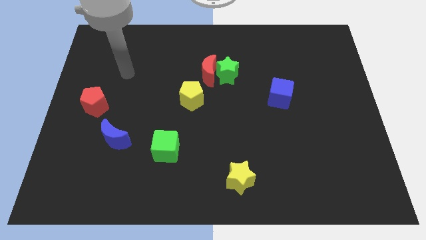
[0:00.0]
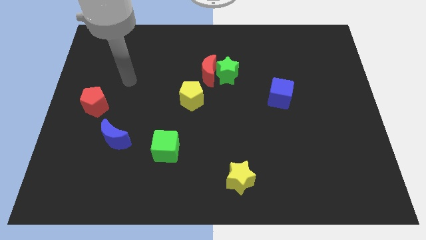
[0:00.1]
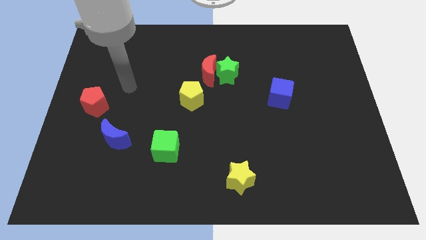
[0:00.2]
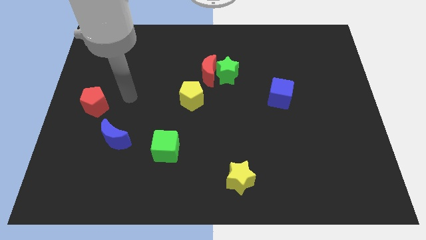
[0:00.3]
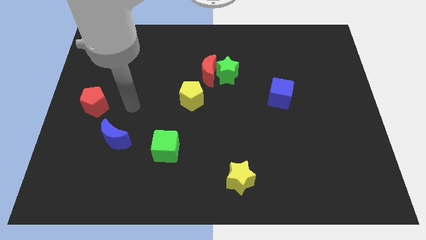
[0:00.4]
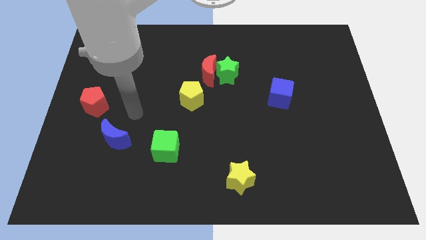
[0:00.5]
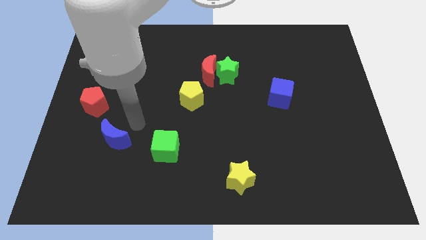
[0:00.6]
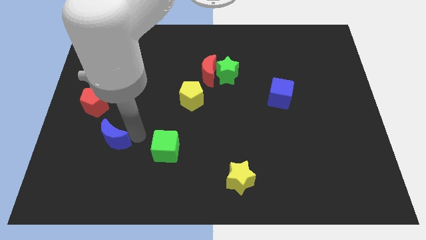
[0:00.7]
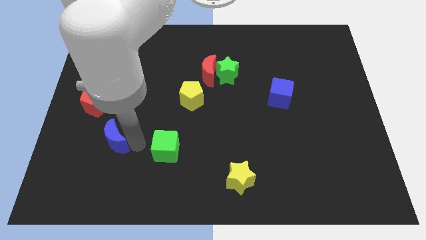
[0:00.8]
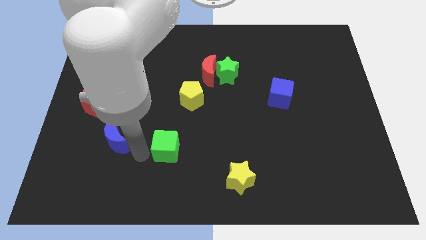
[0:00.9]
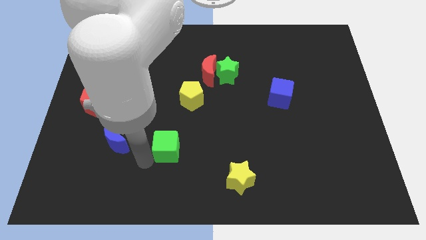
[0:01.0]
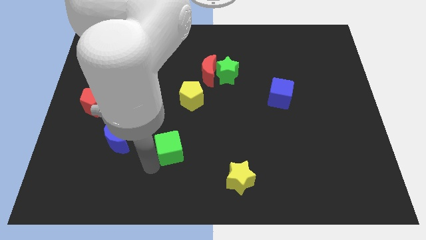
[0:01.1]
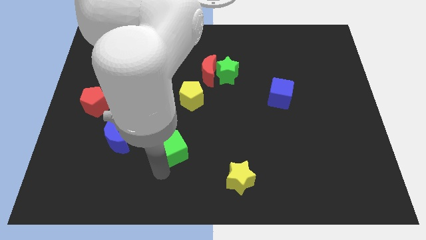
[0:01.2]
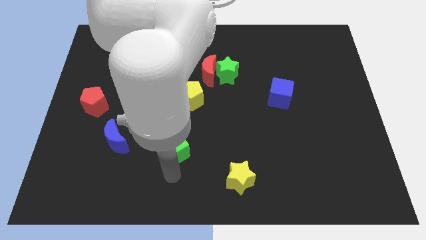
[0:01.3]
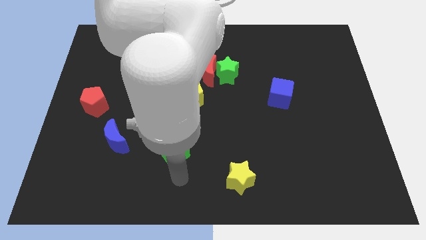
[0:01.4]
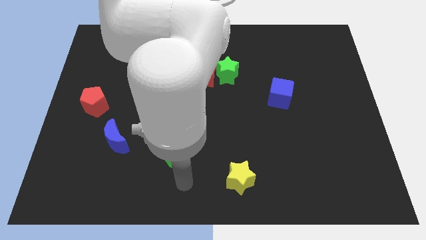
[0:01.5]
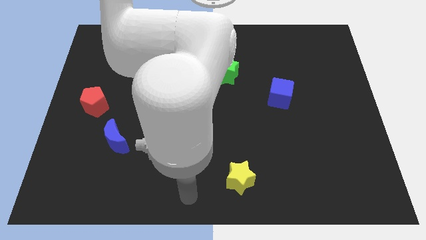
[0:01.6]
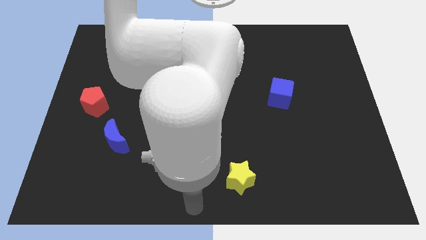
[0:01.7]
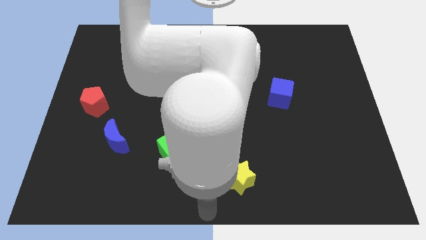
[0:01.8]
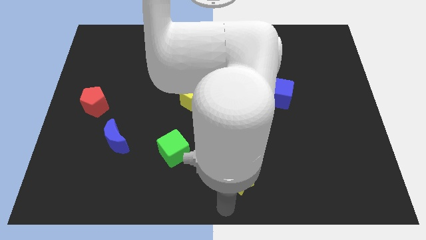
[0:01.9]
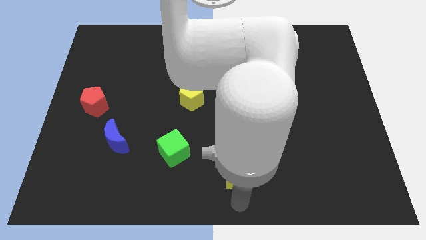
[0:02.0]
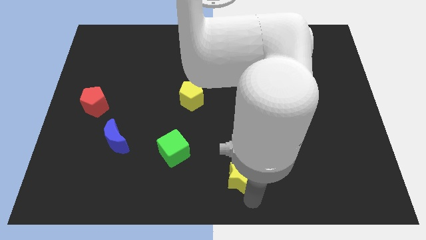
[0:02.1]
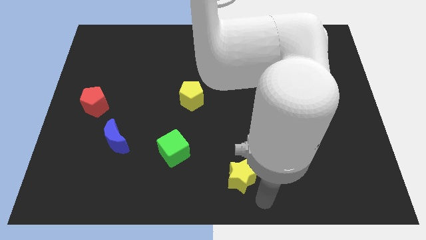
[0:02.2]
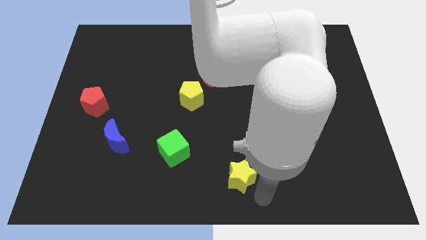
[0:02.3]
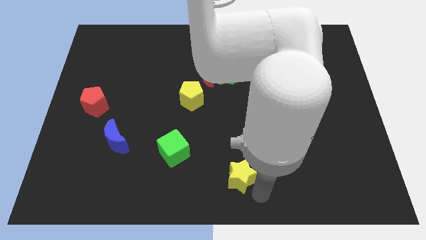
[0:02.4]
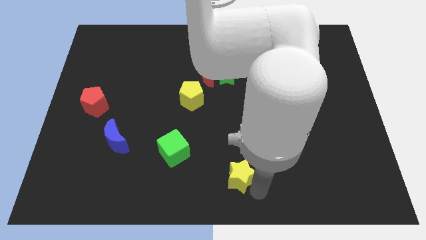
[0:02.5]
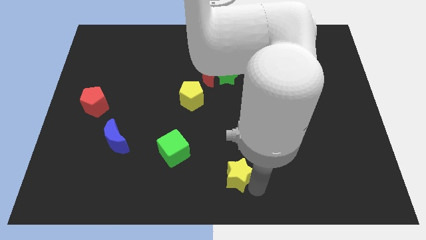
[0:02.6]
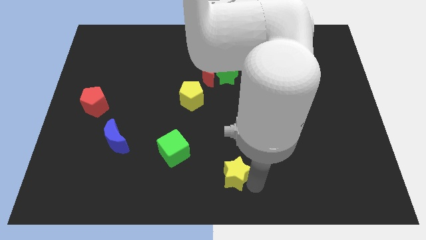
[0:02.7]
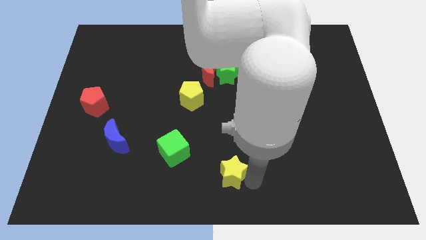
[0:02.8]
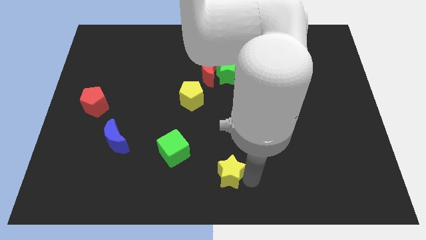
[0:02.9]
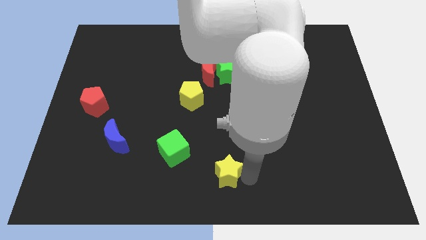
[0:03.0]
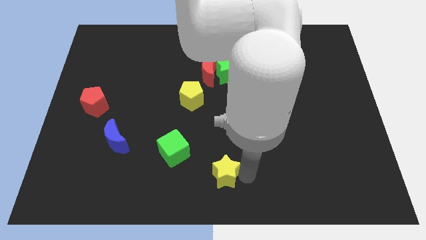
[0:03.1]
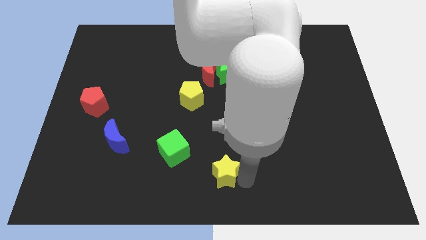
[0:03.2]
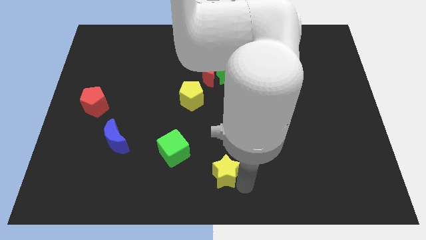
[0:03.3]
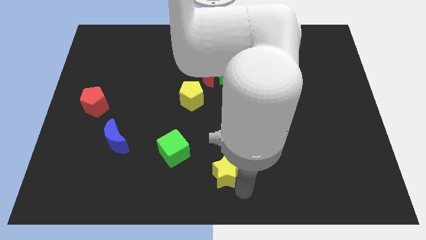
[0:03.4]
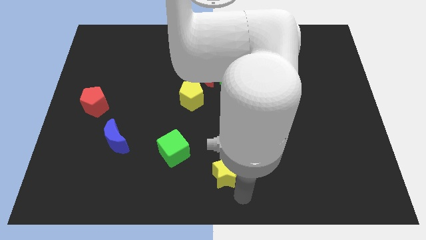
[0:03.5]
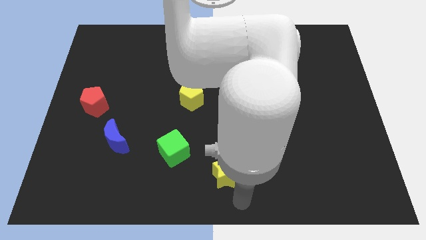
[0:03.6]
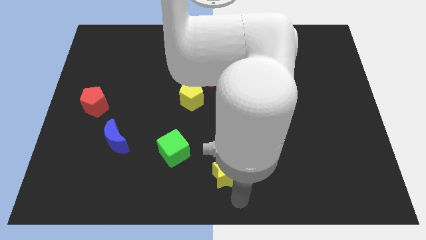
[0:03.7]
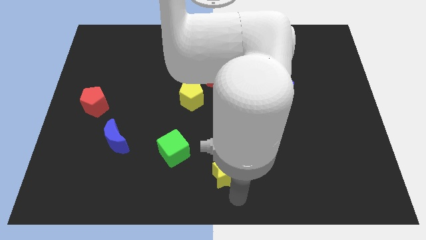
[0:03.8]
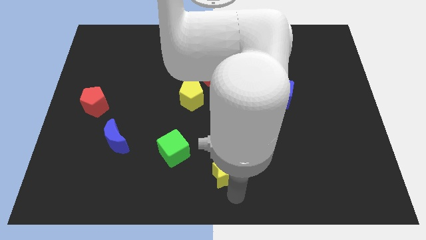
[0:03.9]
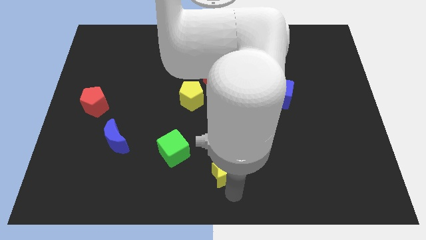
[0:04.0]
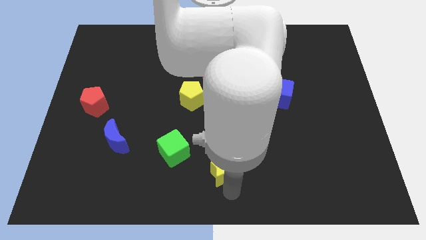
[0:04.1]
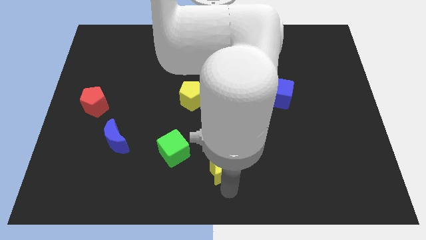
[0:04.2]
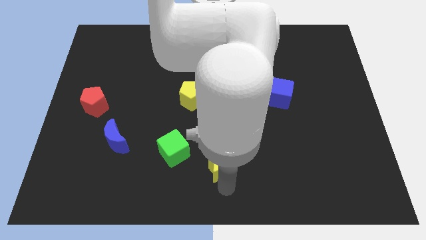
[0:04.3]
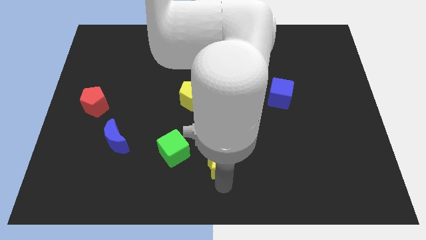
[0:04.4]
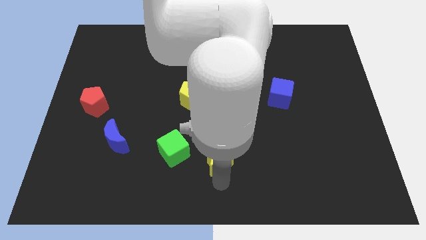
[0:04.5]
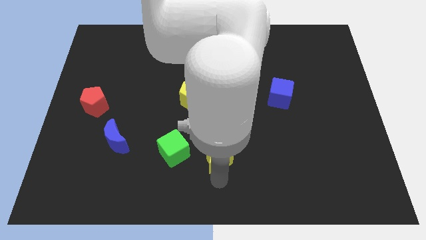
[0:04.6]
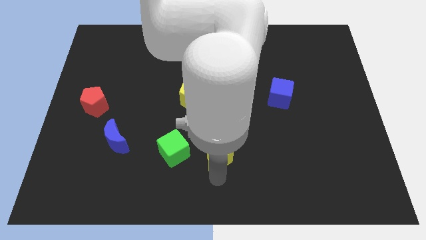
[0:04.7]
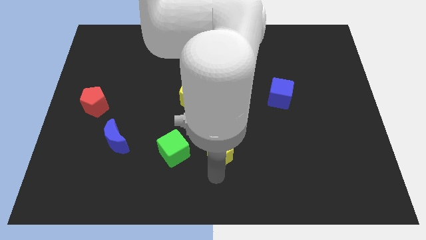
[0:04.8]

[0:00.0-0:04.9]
push the yellow star a little bit upwards and to the left

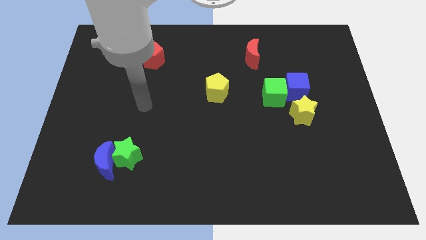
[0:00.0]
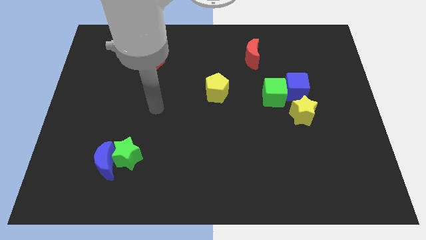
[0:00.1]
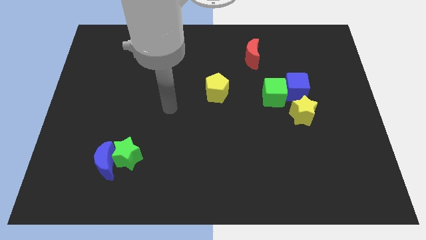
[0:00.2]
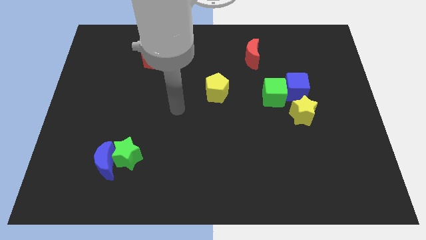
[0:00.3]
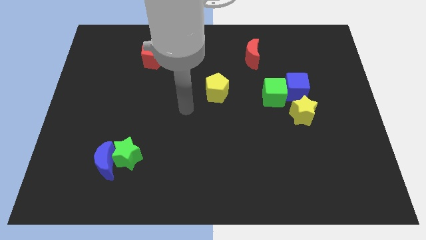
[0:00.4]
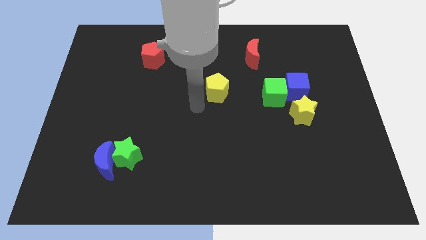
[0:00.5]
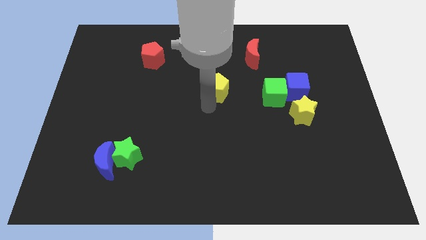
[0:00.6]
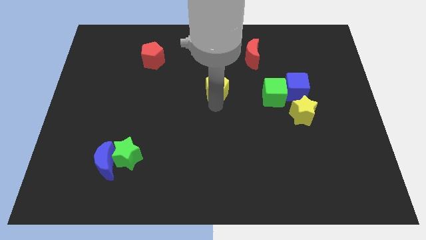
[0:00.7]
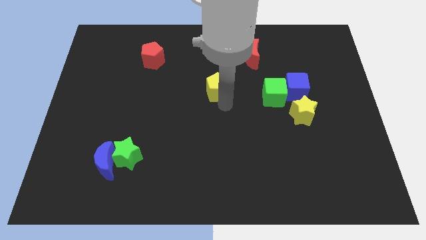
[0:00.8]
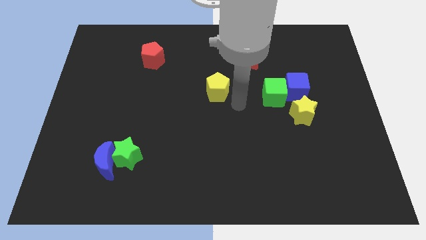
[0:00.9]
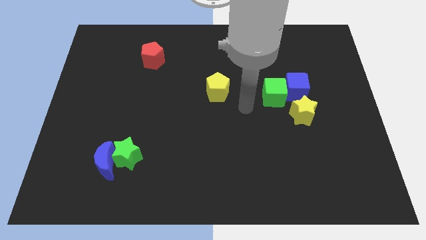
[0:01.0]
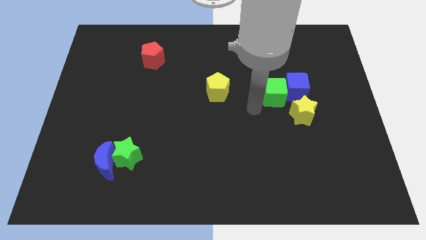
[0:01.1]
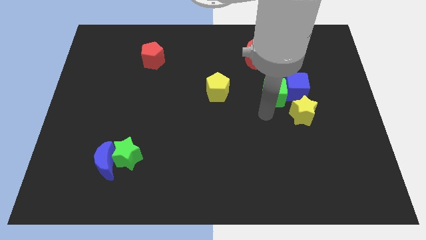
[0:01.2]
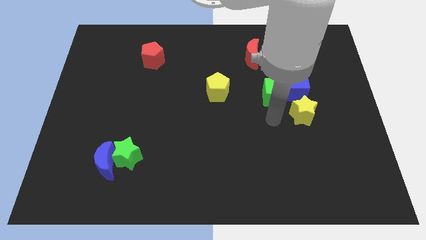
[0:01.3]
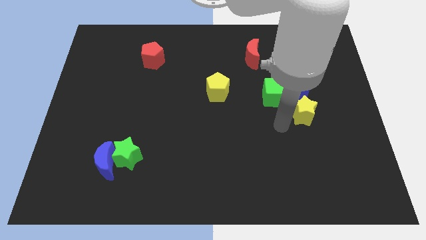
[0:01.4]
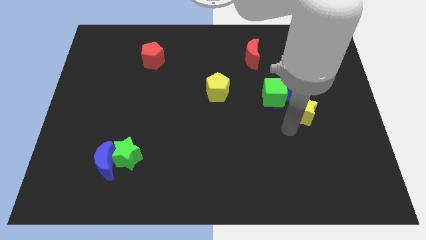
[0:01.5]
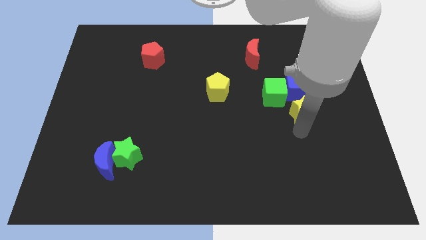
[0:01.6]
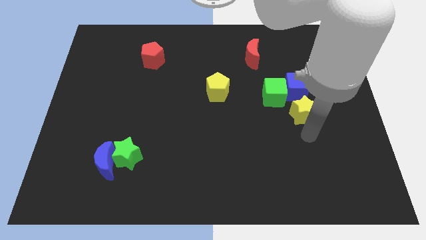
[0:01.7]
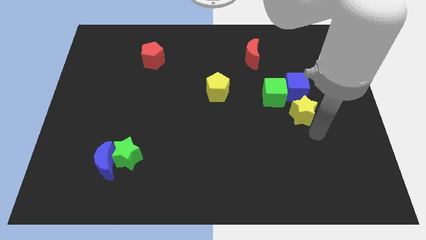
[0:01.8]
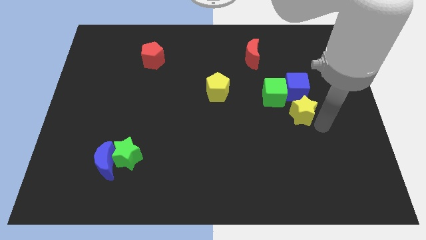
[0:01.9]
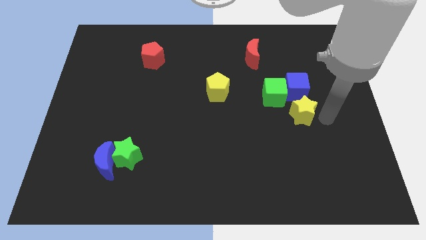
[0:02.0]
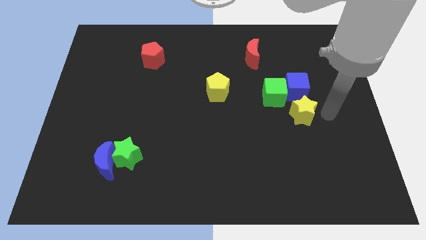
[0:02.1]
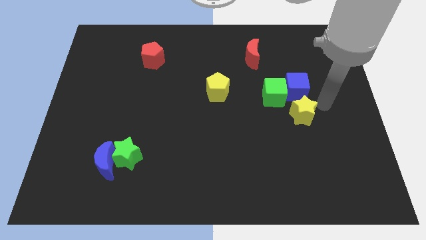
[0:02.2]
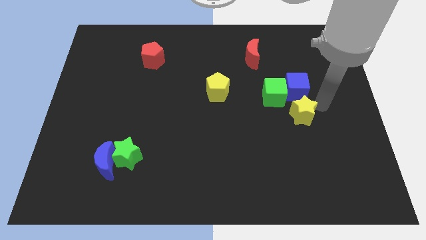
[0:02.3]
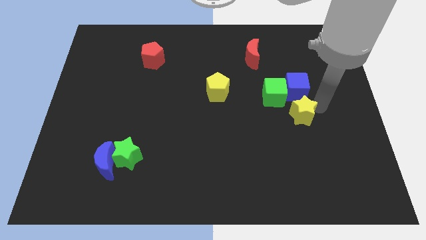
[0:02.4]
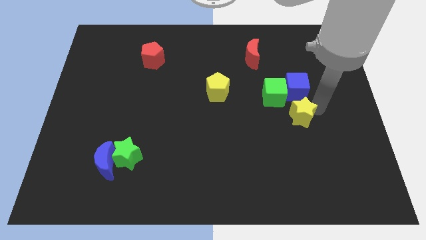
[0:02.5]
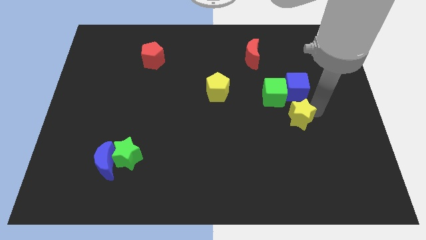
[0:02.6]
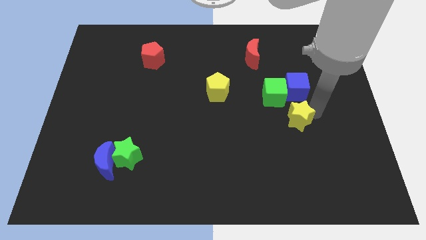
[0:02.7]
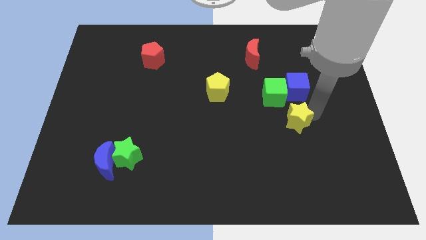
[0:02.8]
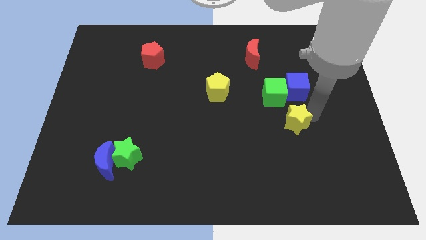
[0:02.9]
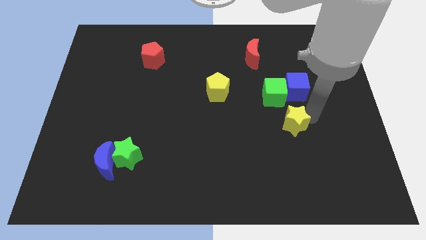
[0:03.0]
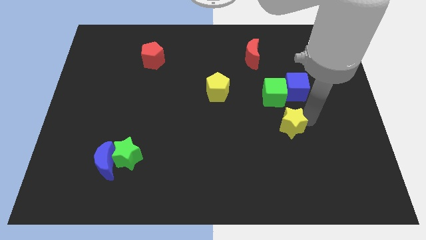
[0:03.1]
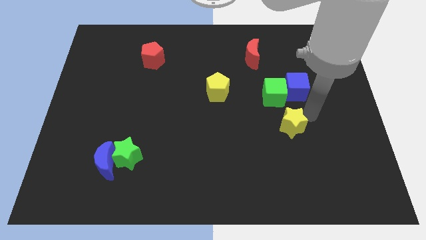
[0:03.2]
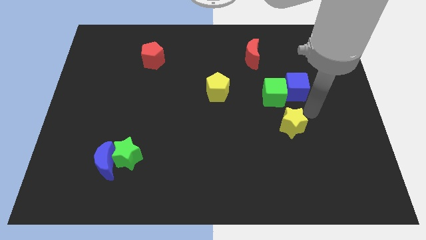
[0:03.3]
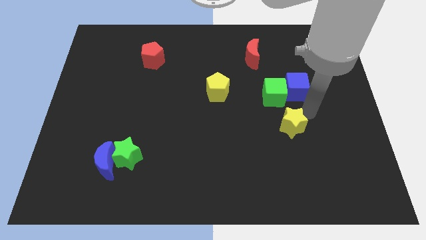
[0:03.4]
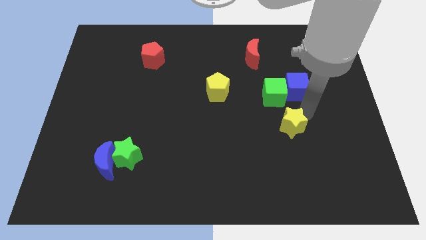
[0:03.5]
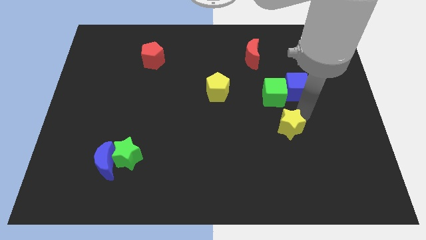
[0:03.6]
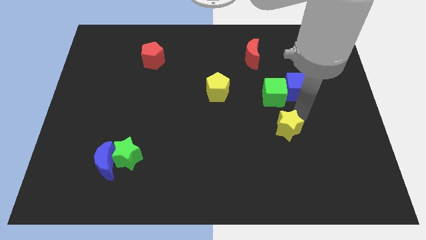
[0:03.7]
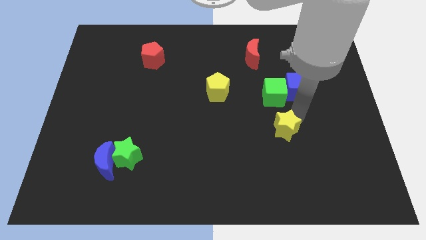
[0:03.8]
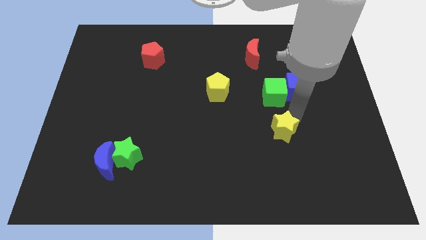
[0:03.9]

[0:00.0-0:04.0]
push the yellow star diagonally downwards and left a little
